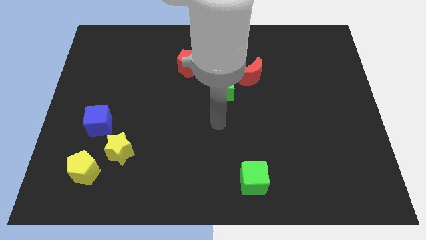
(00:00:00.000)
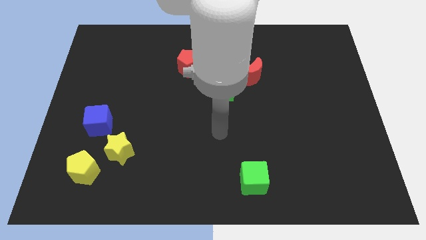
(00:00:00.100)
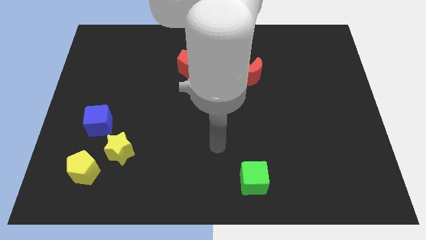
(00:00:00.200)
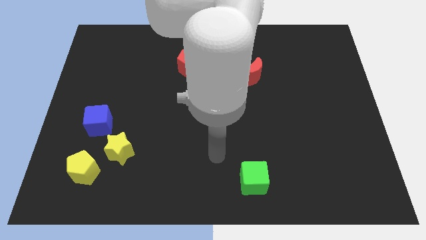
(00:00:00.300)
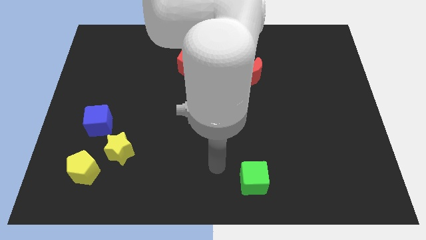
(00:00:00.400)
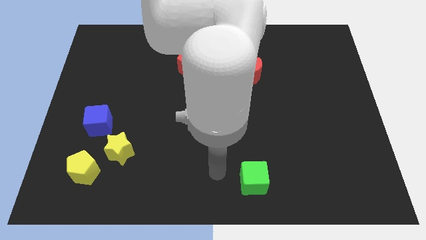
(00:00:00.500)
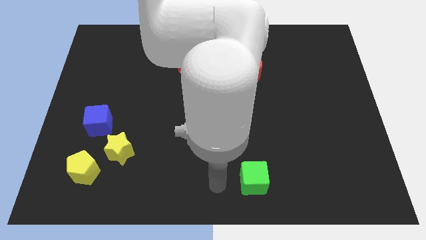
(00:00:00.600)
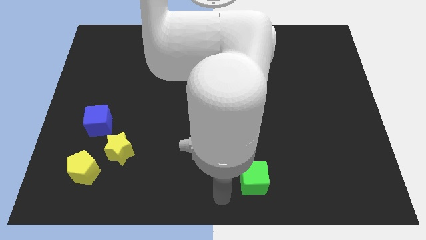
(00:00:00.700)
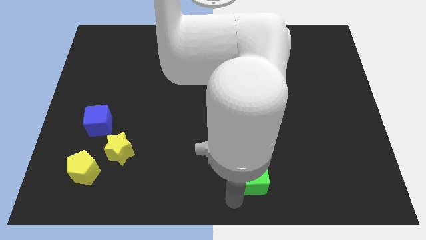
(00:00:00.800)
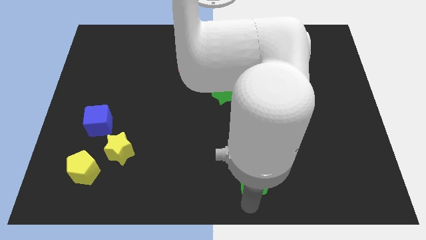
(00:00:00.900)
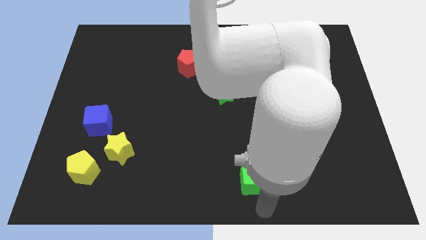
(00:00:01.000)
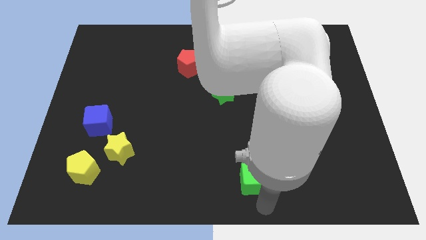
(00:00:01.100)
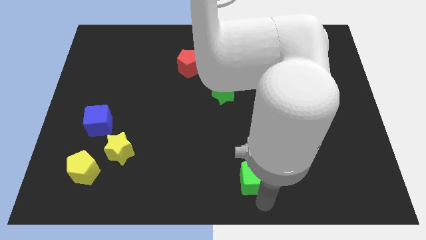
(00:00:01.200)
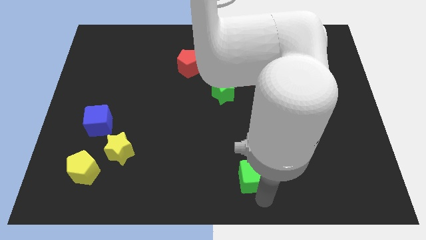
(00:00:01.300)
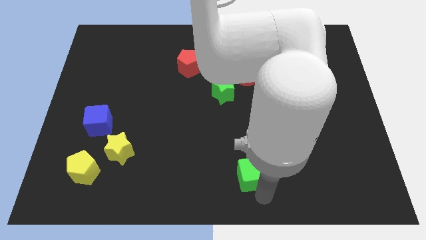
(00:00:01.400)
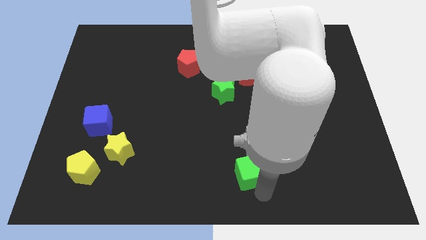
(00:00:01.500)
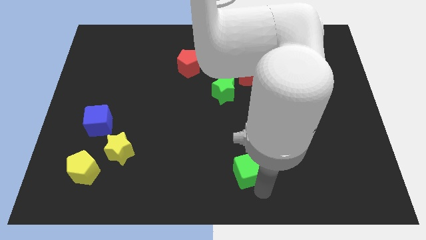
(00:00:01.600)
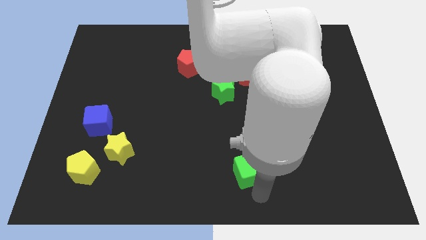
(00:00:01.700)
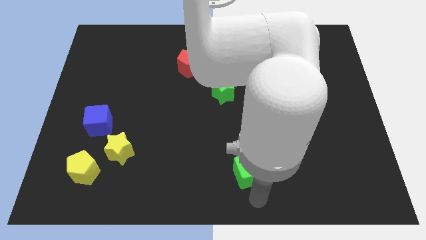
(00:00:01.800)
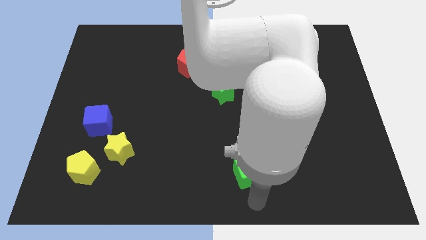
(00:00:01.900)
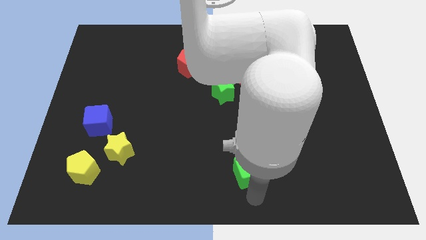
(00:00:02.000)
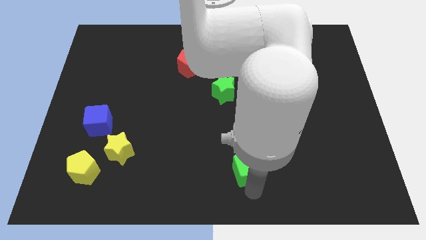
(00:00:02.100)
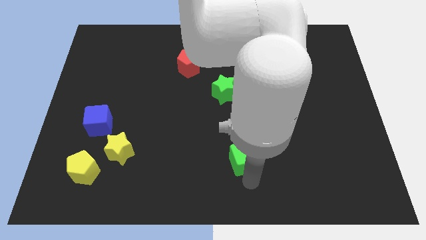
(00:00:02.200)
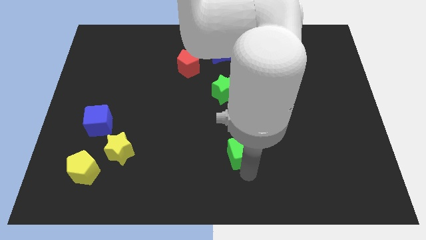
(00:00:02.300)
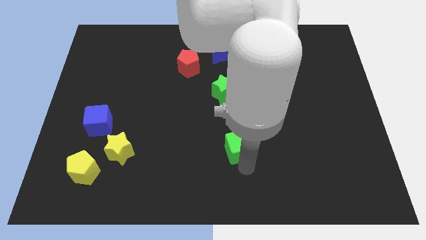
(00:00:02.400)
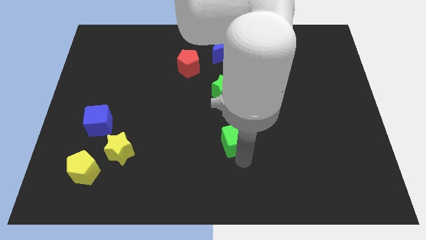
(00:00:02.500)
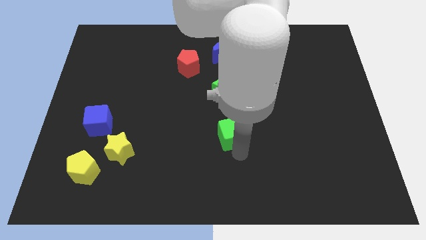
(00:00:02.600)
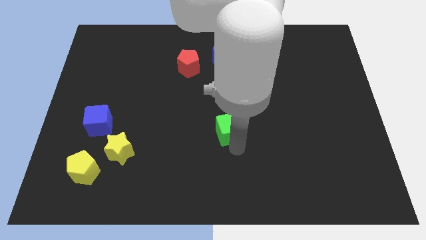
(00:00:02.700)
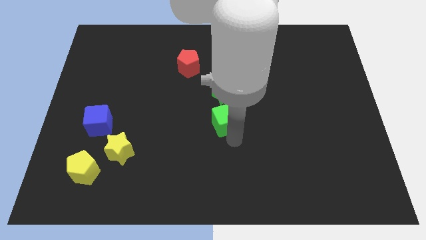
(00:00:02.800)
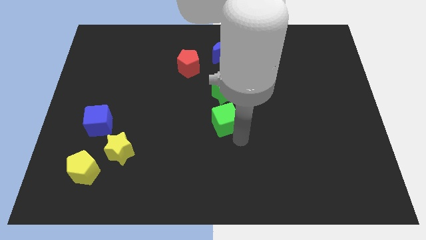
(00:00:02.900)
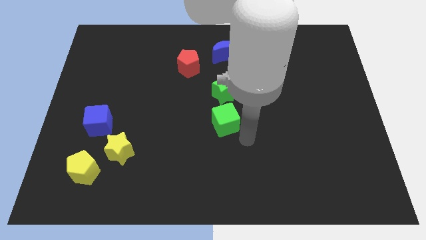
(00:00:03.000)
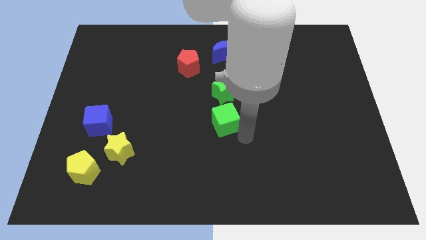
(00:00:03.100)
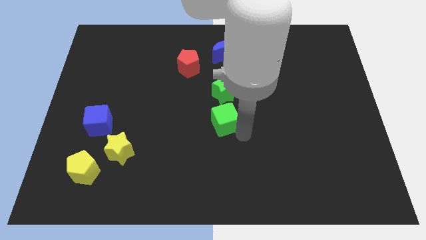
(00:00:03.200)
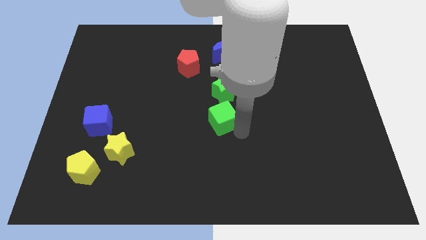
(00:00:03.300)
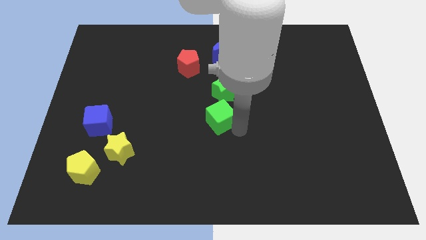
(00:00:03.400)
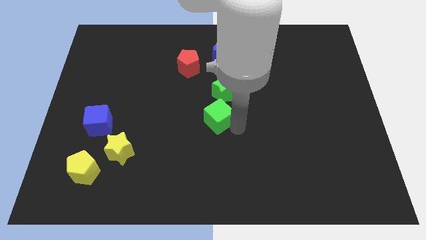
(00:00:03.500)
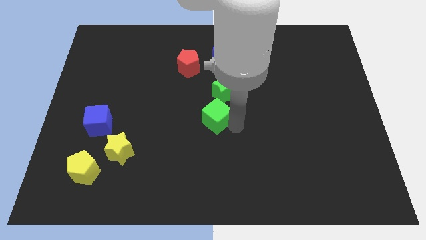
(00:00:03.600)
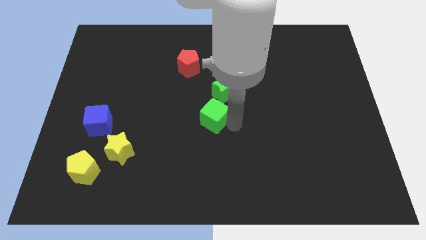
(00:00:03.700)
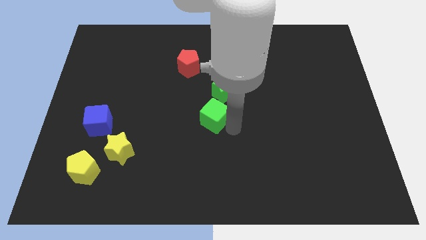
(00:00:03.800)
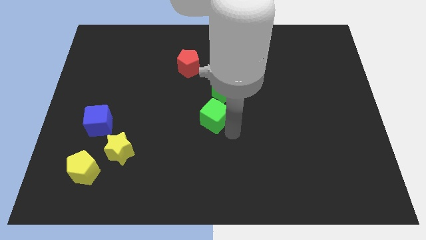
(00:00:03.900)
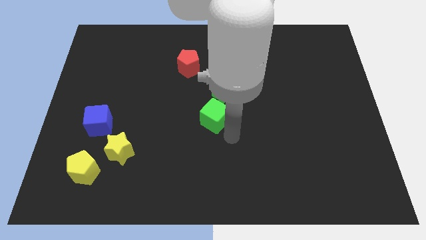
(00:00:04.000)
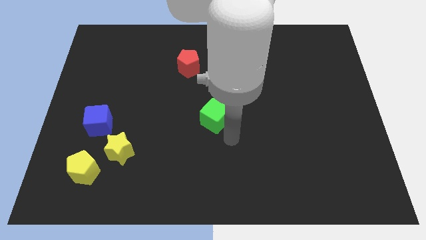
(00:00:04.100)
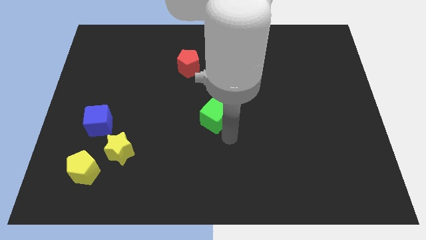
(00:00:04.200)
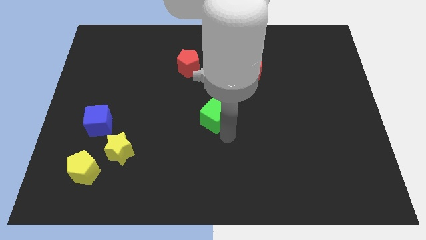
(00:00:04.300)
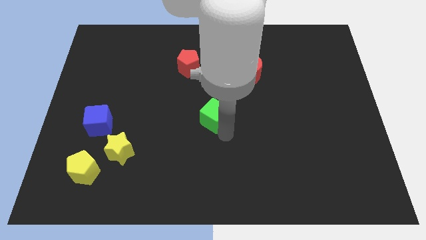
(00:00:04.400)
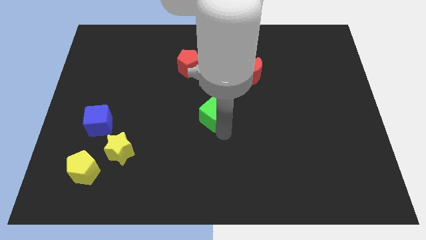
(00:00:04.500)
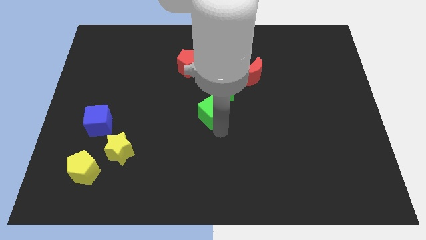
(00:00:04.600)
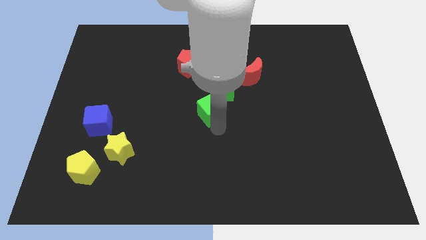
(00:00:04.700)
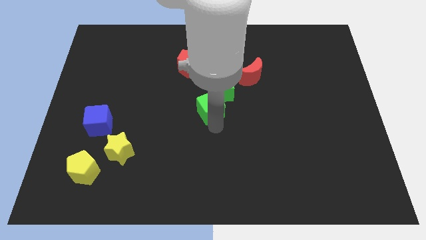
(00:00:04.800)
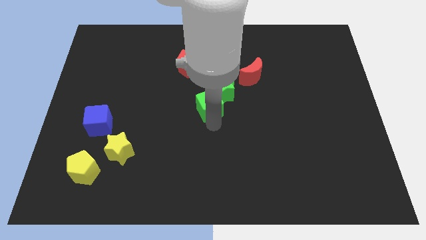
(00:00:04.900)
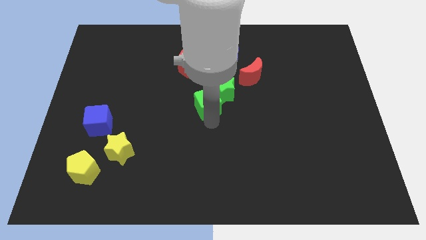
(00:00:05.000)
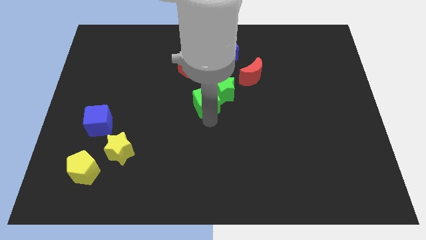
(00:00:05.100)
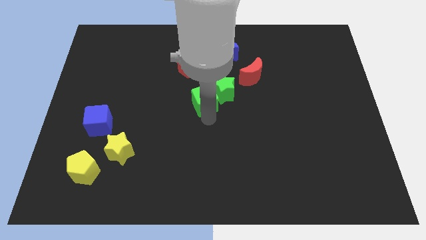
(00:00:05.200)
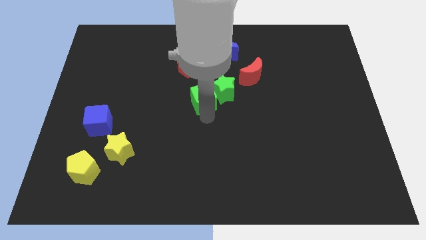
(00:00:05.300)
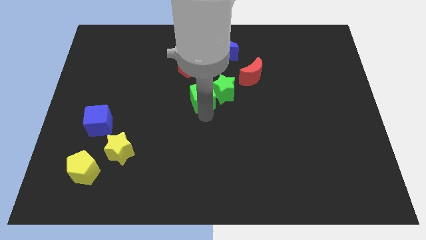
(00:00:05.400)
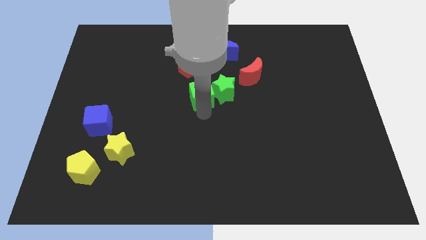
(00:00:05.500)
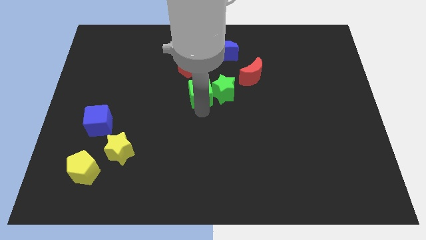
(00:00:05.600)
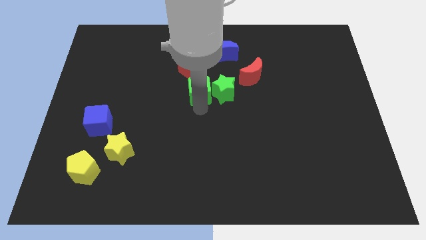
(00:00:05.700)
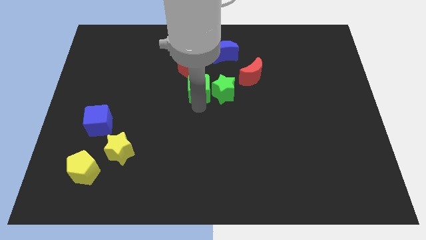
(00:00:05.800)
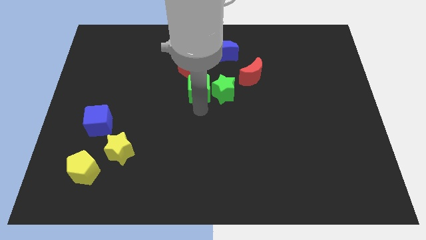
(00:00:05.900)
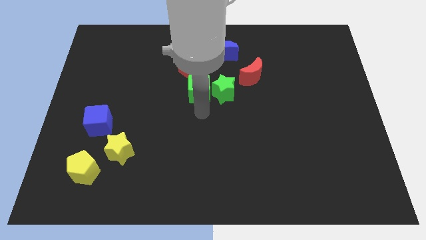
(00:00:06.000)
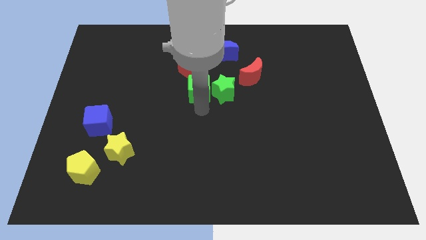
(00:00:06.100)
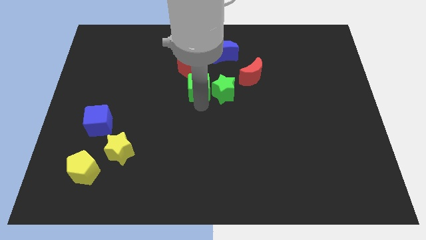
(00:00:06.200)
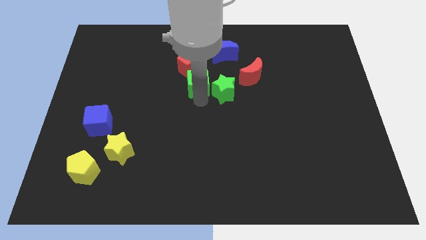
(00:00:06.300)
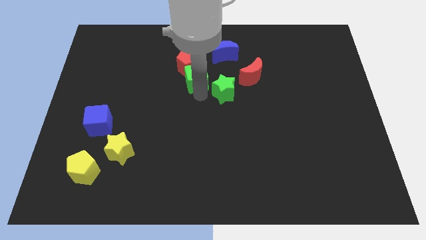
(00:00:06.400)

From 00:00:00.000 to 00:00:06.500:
push the green cube next to the red pentagon
